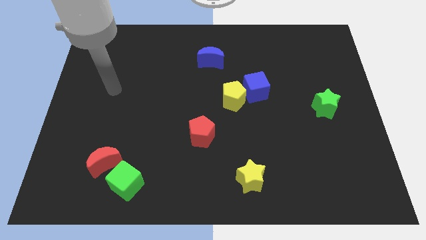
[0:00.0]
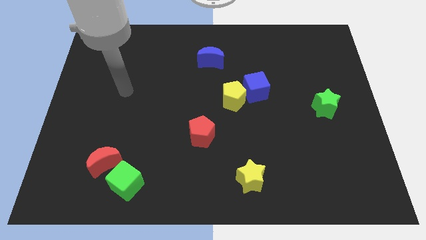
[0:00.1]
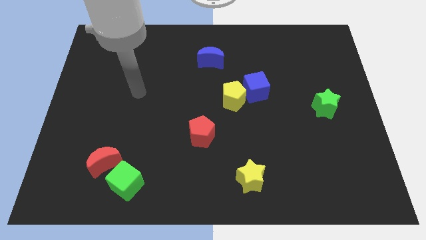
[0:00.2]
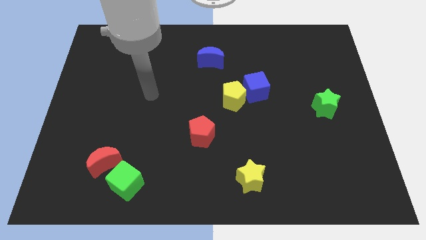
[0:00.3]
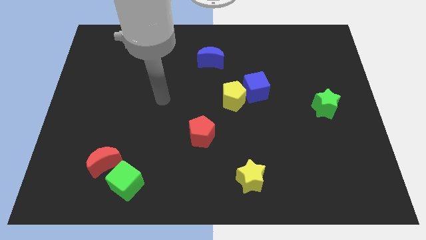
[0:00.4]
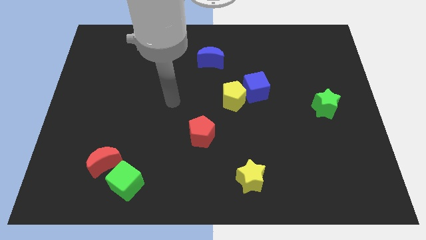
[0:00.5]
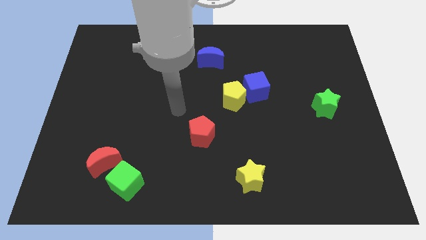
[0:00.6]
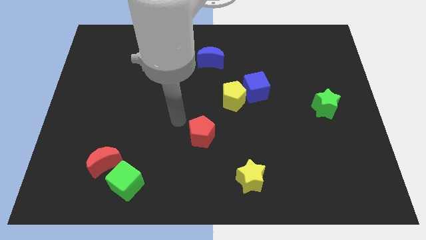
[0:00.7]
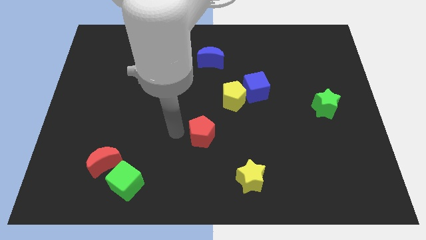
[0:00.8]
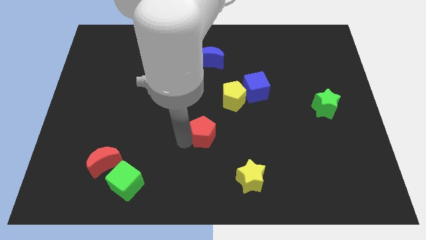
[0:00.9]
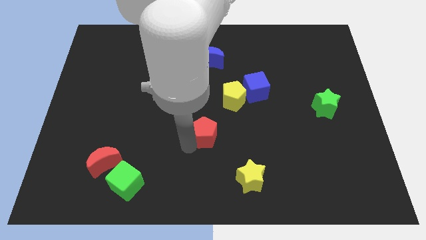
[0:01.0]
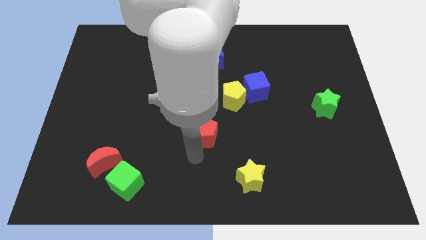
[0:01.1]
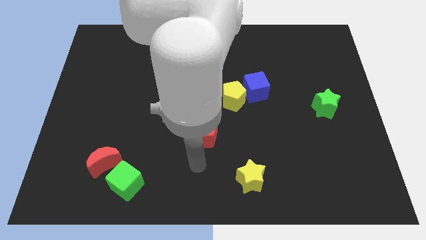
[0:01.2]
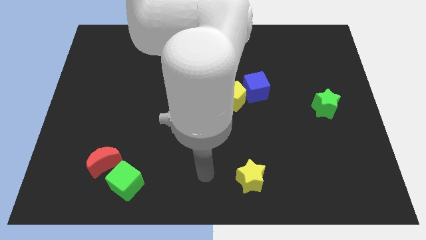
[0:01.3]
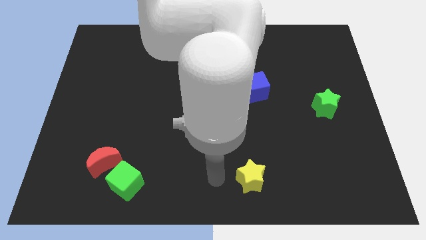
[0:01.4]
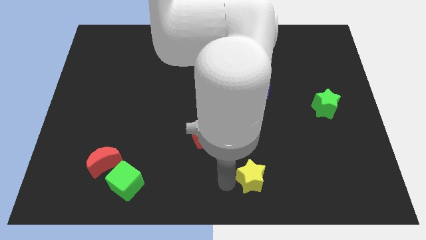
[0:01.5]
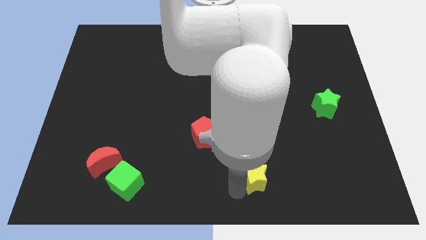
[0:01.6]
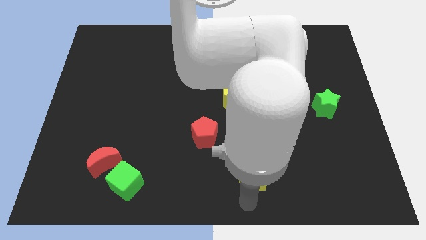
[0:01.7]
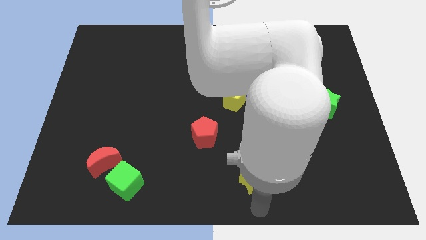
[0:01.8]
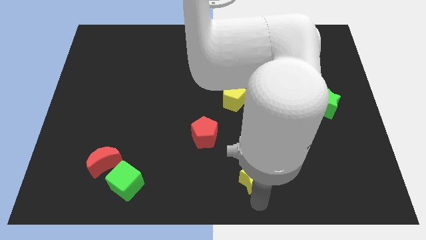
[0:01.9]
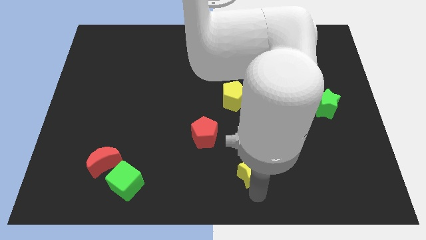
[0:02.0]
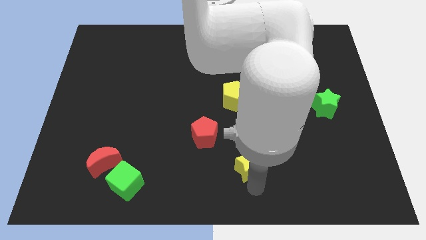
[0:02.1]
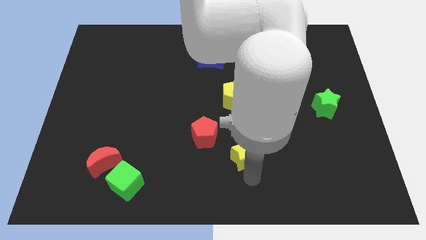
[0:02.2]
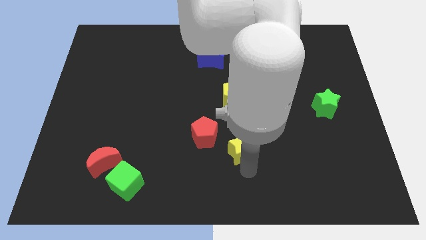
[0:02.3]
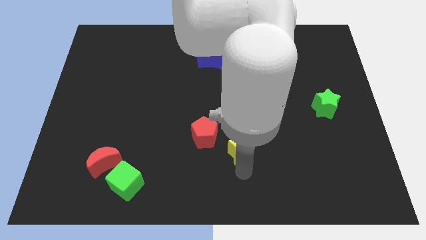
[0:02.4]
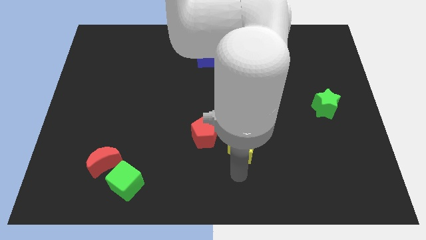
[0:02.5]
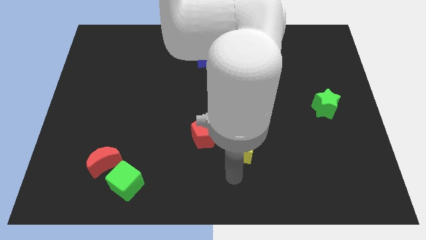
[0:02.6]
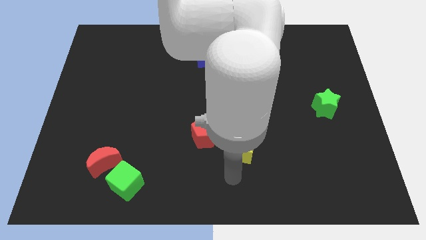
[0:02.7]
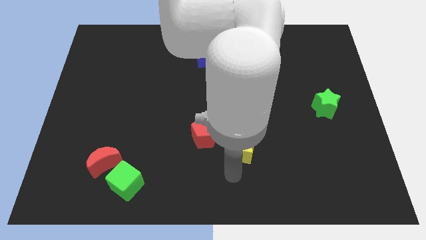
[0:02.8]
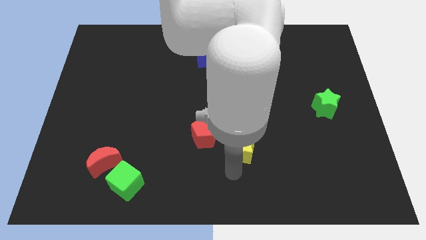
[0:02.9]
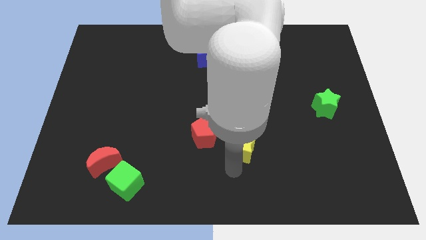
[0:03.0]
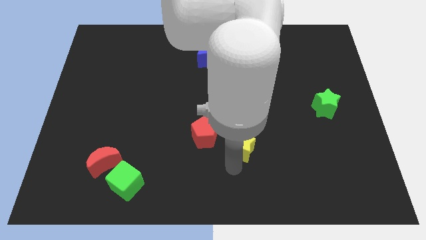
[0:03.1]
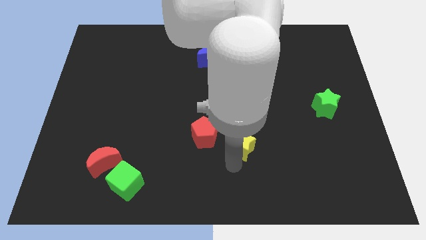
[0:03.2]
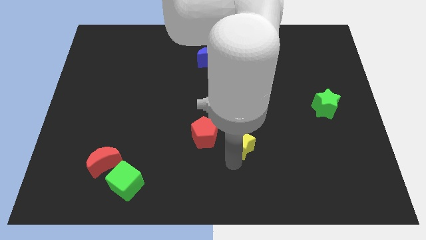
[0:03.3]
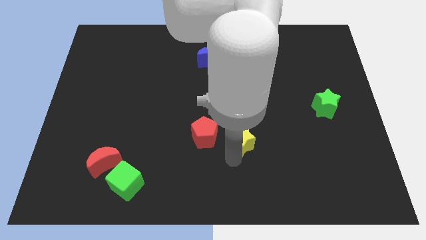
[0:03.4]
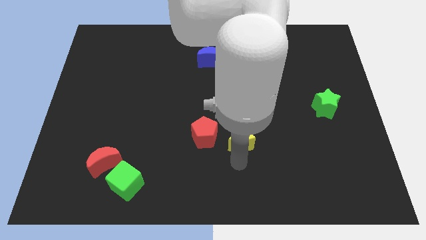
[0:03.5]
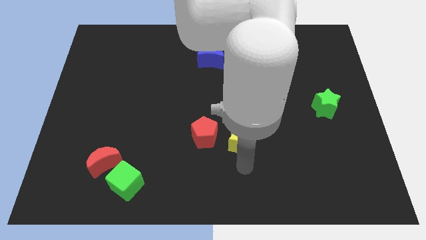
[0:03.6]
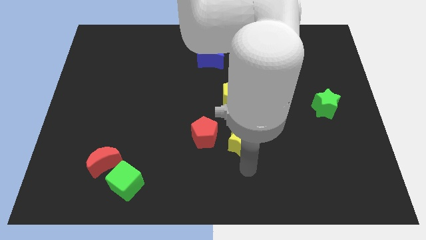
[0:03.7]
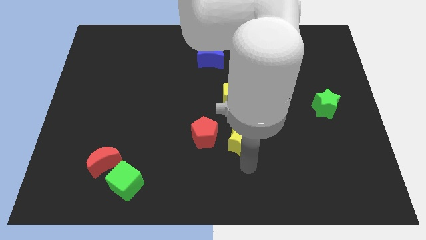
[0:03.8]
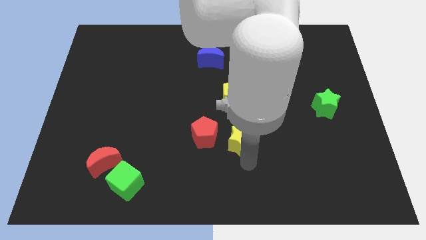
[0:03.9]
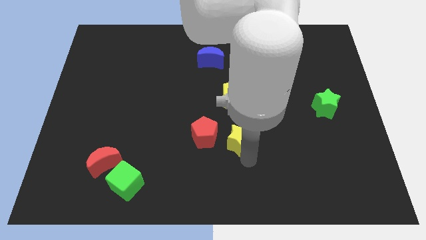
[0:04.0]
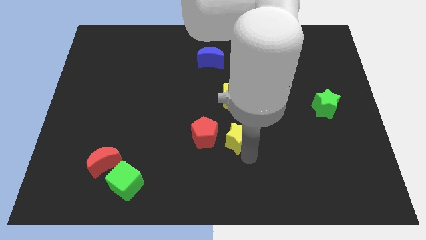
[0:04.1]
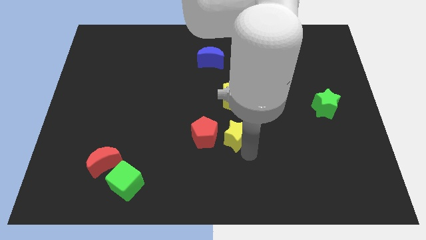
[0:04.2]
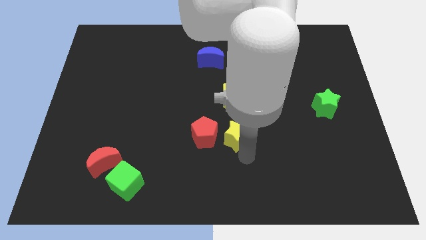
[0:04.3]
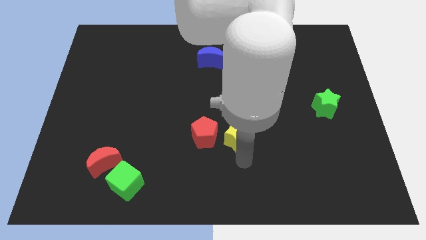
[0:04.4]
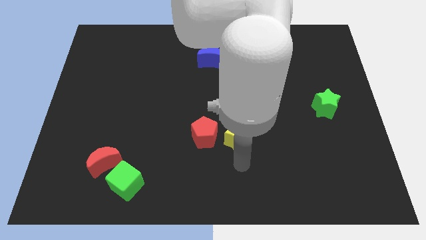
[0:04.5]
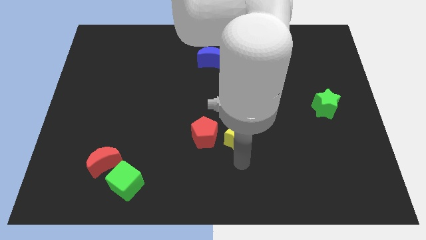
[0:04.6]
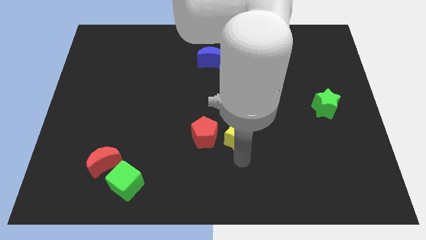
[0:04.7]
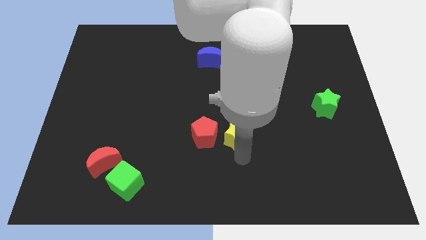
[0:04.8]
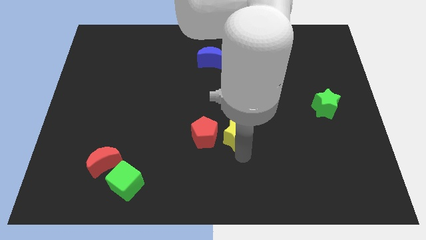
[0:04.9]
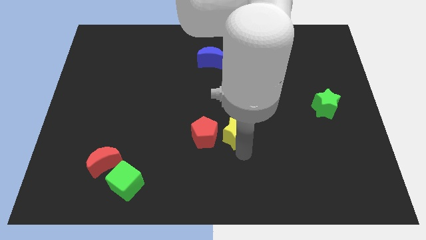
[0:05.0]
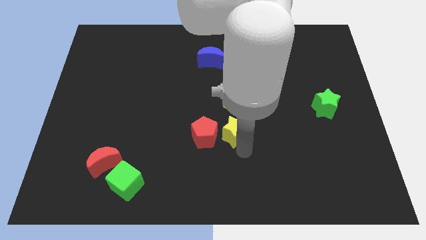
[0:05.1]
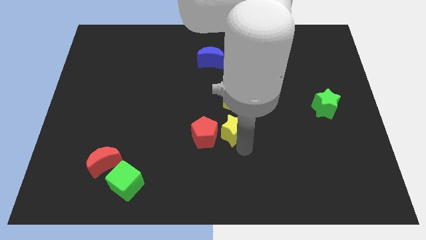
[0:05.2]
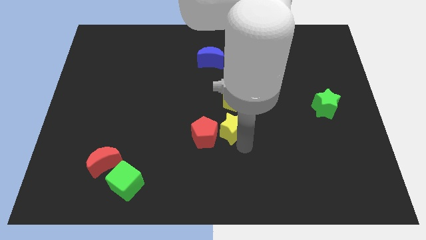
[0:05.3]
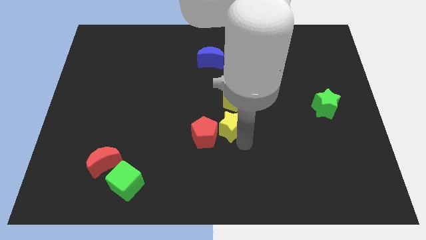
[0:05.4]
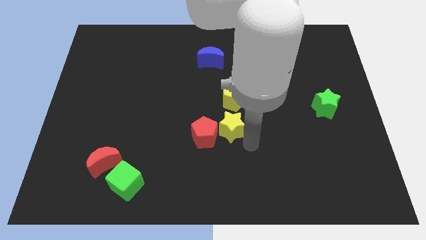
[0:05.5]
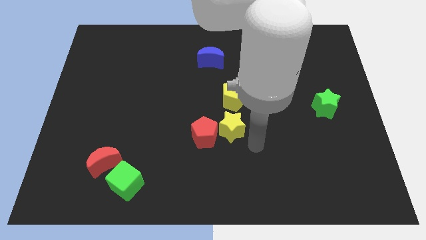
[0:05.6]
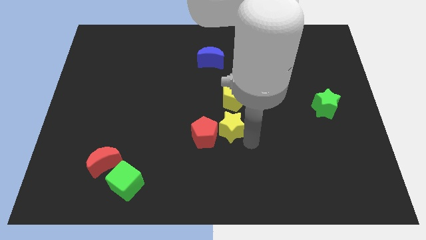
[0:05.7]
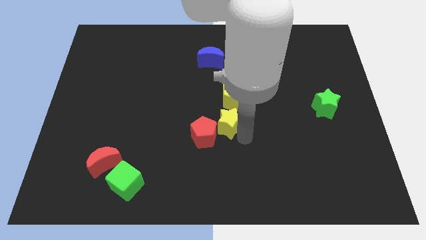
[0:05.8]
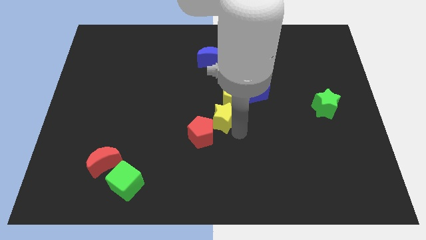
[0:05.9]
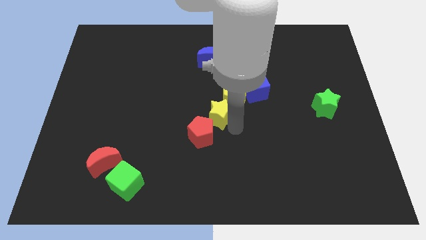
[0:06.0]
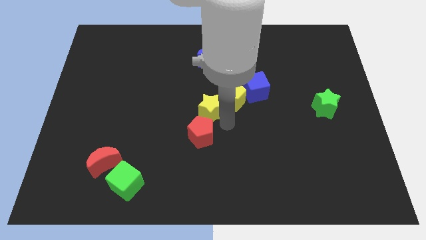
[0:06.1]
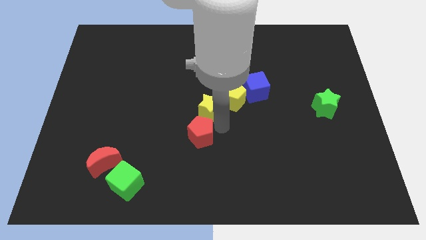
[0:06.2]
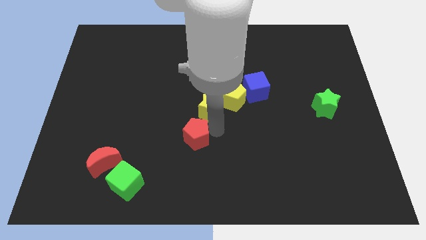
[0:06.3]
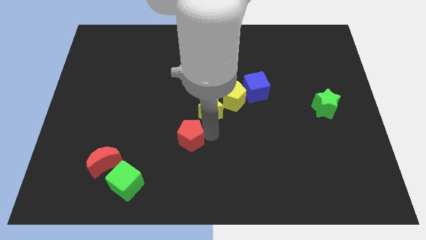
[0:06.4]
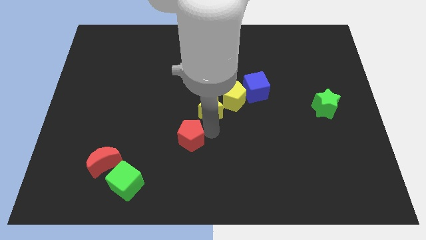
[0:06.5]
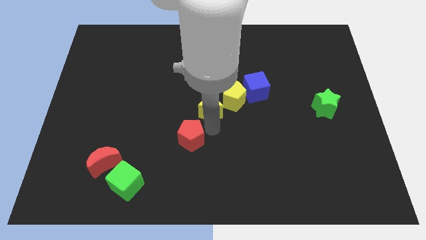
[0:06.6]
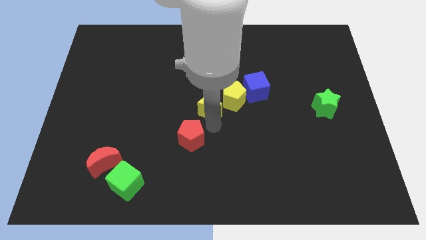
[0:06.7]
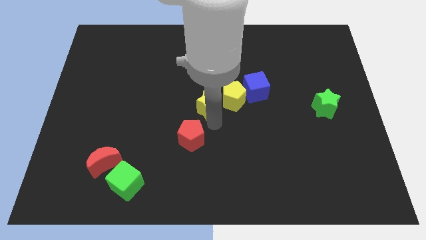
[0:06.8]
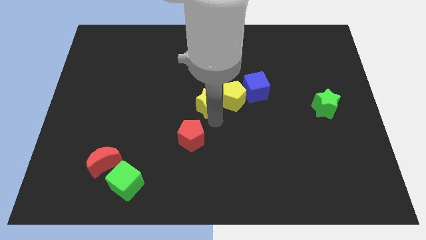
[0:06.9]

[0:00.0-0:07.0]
push the yellow star left of the blue cube
